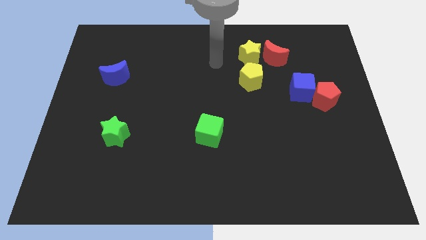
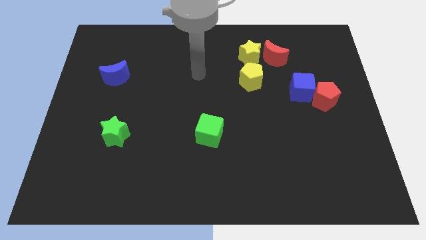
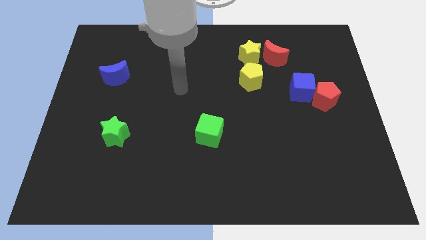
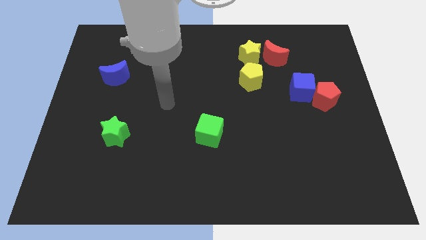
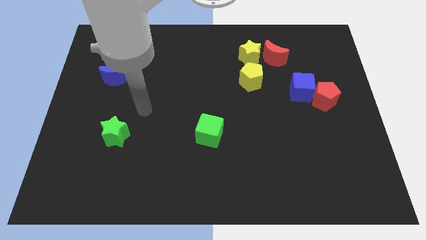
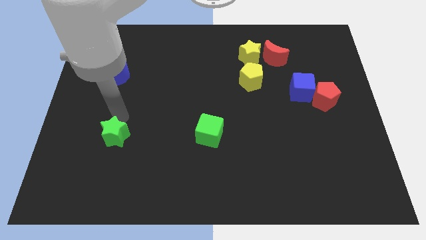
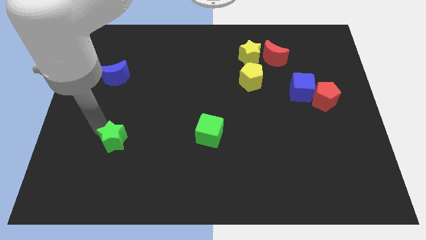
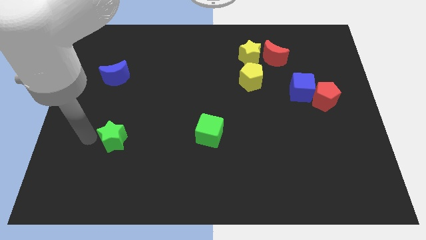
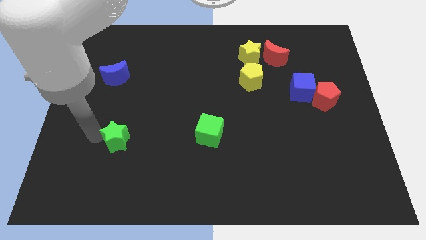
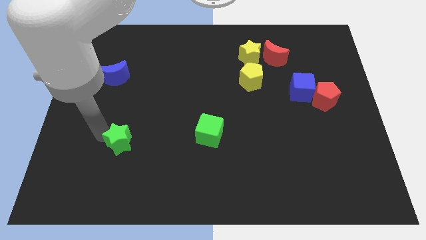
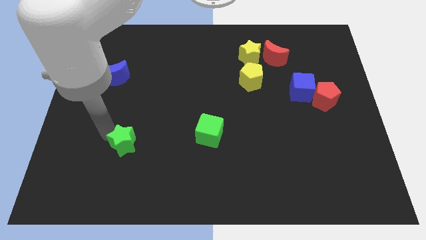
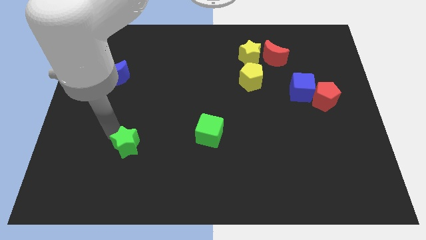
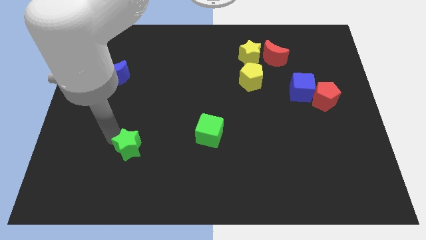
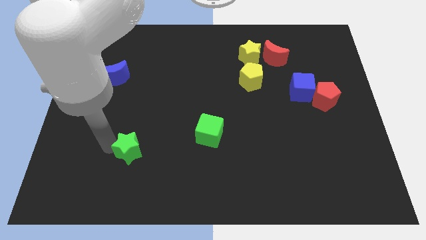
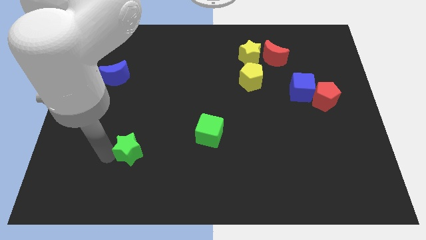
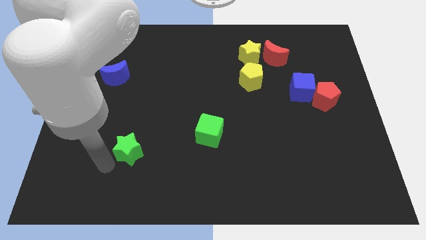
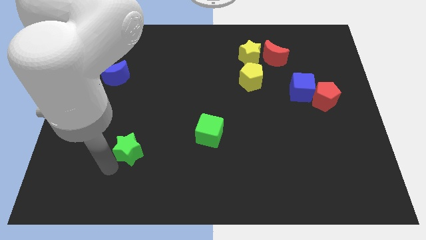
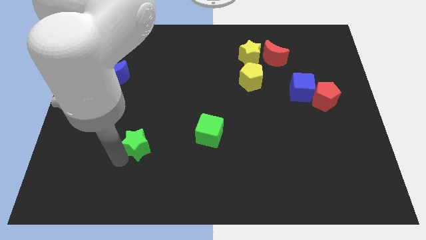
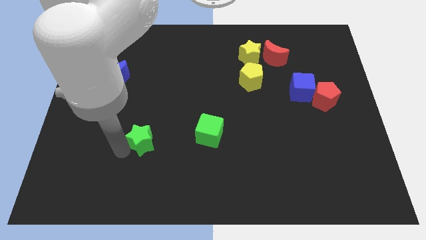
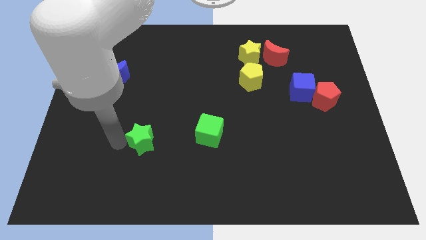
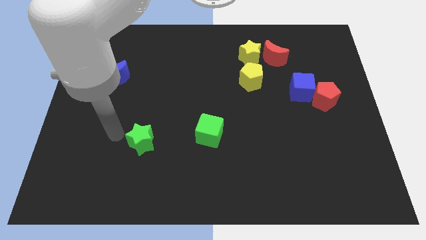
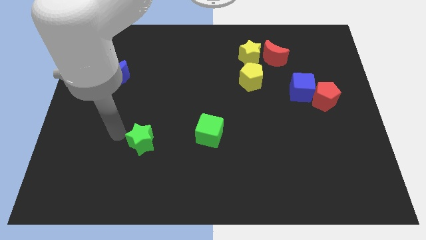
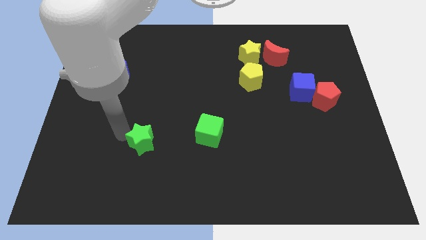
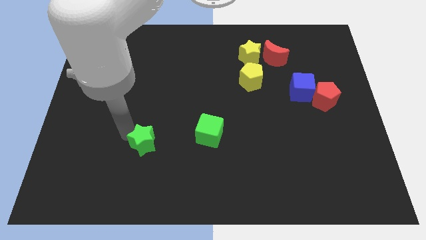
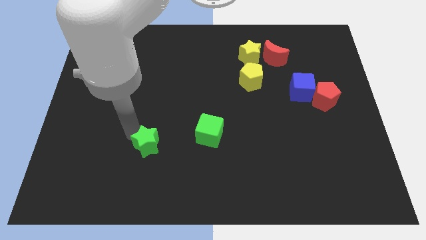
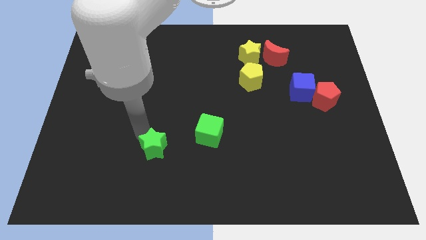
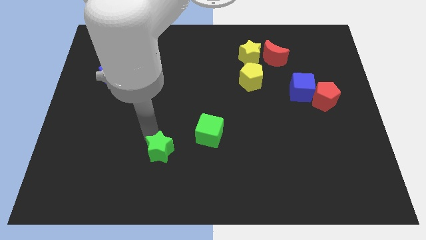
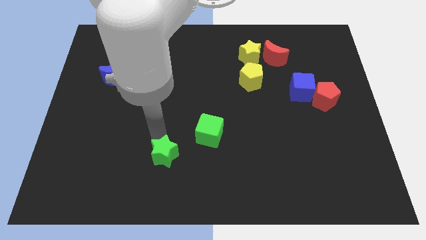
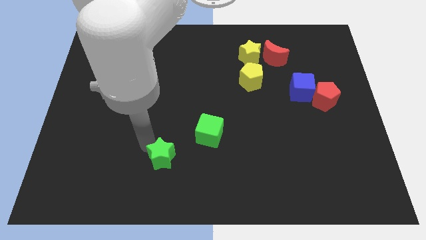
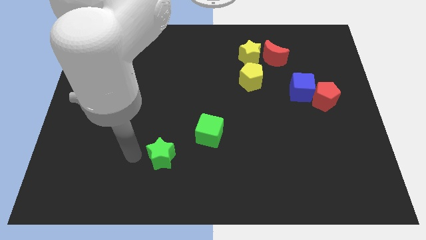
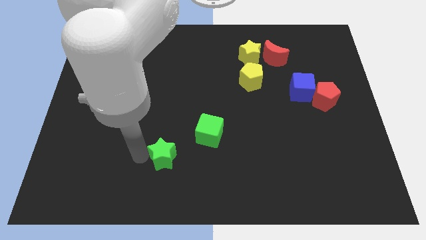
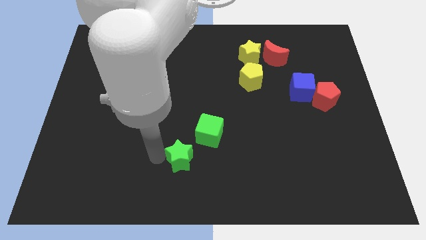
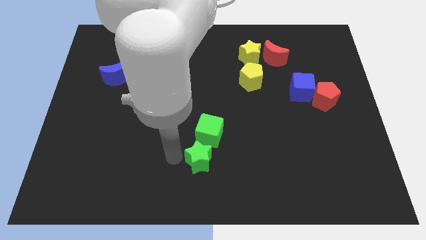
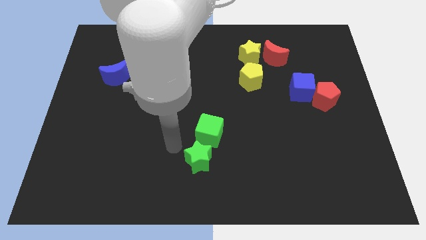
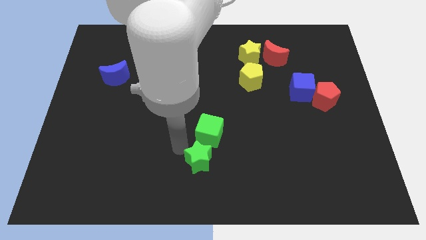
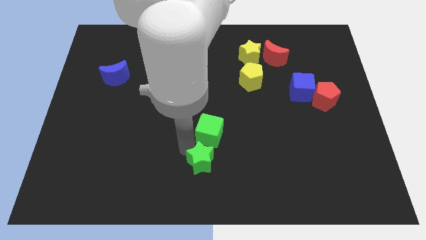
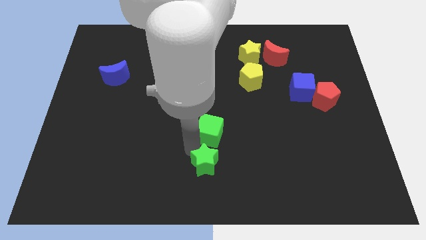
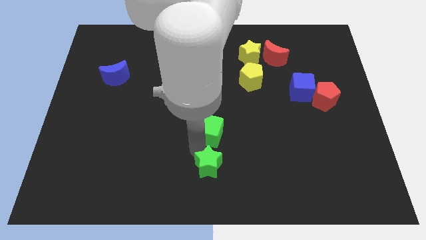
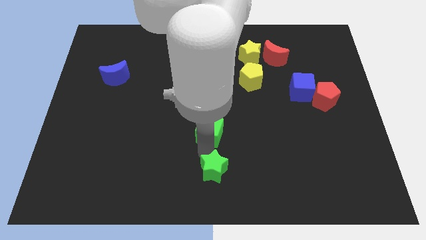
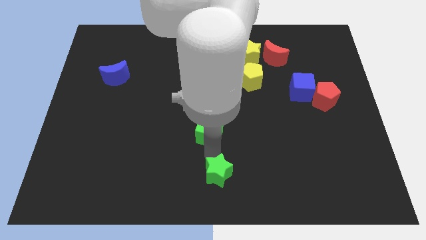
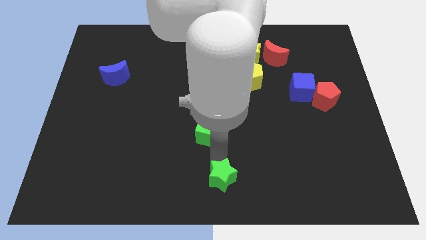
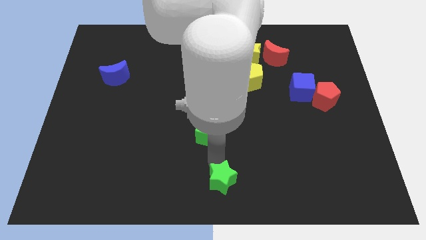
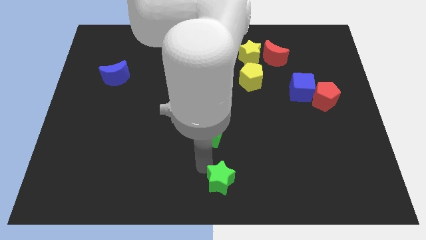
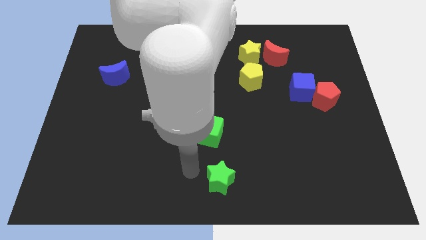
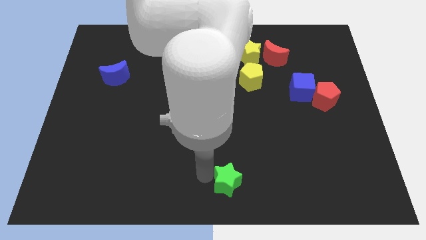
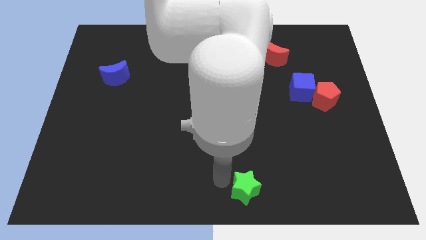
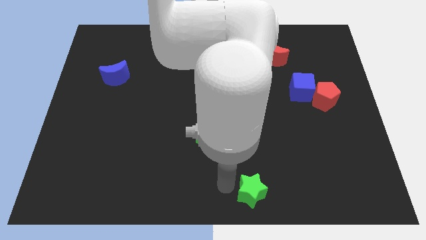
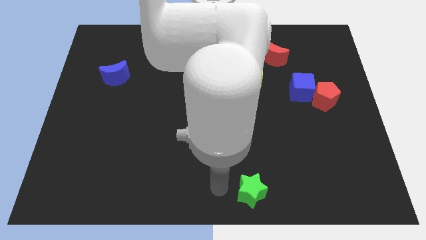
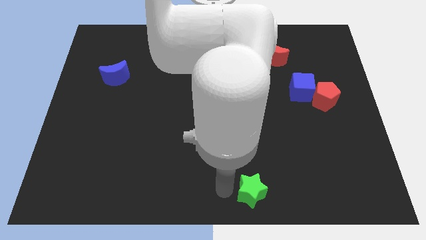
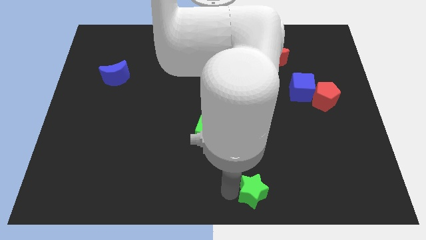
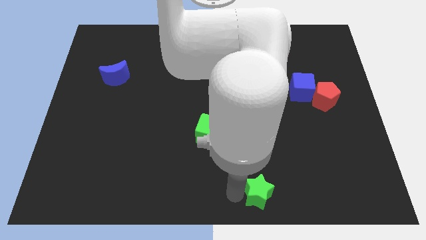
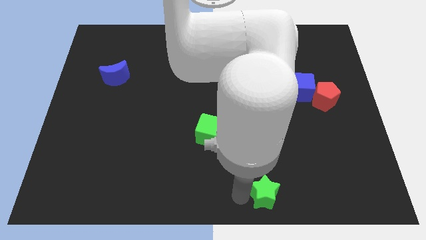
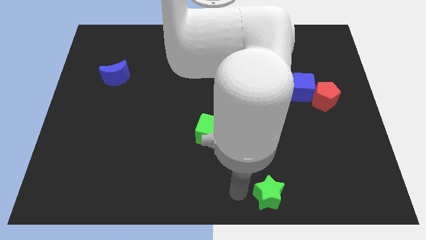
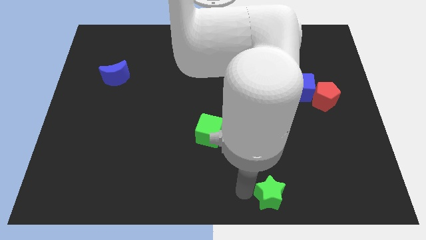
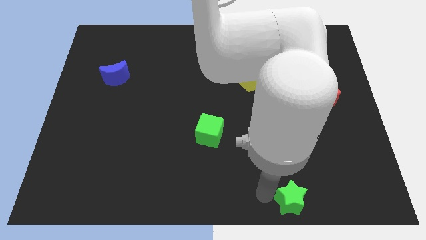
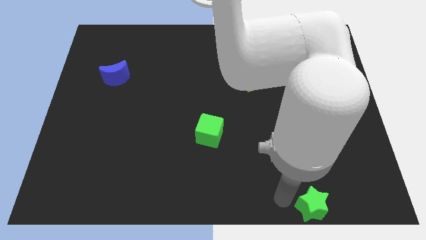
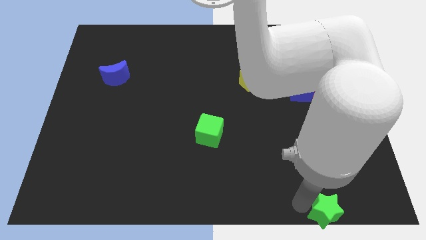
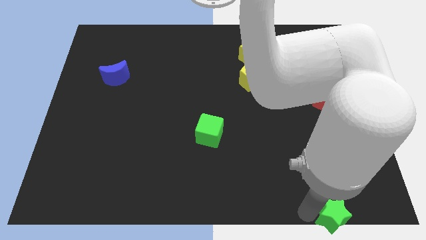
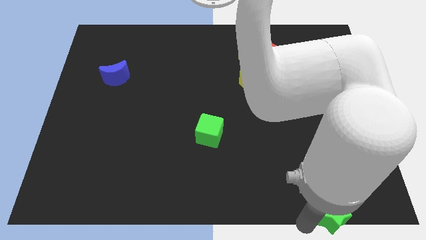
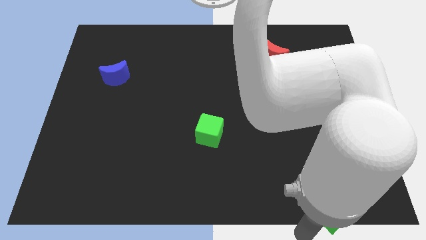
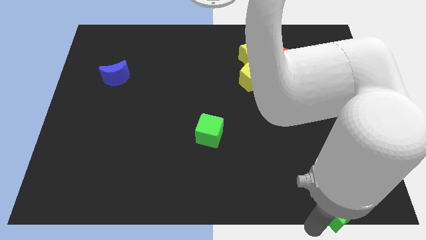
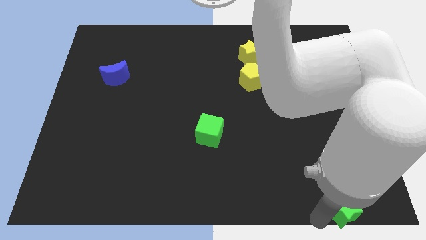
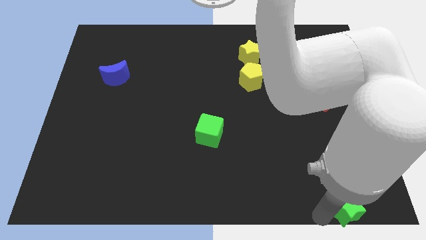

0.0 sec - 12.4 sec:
put the green star to the bottom right

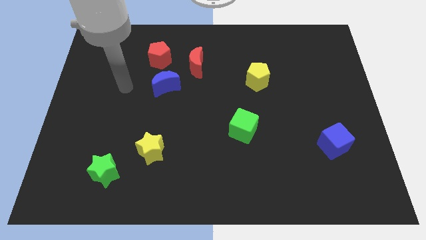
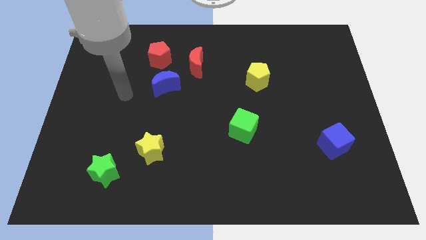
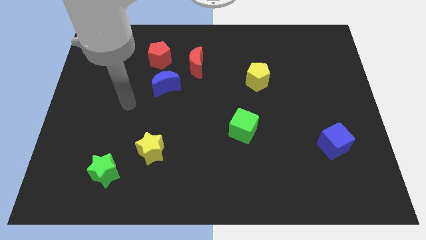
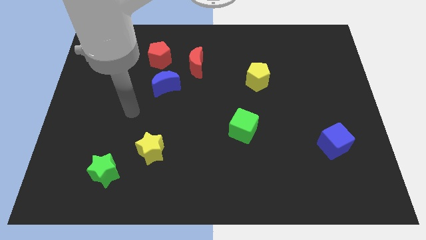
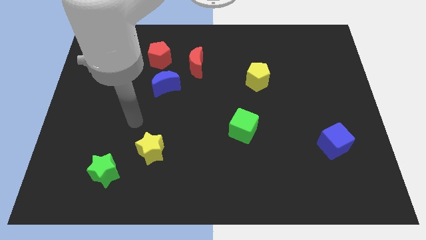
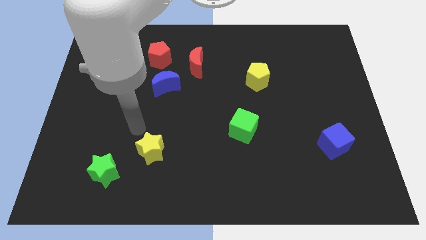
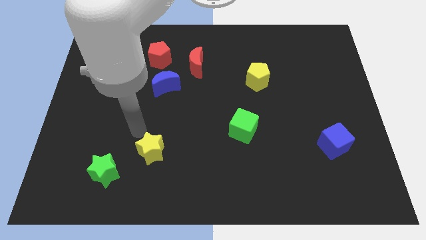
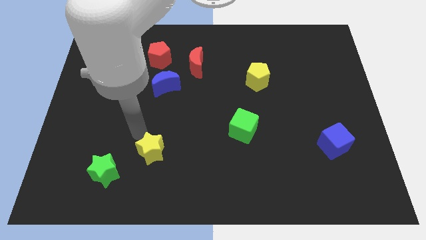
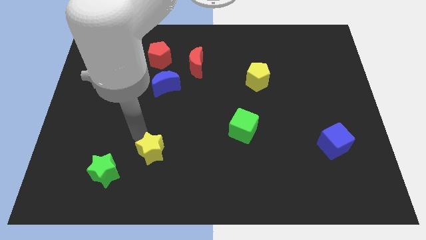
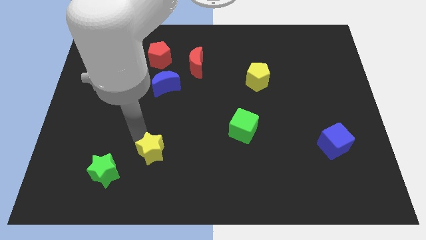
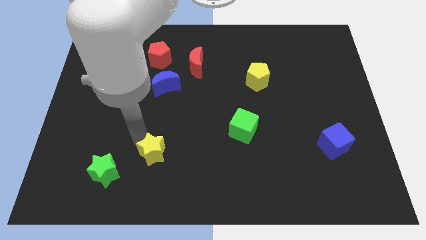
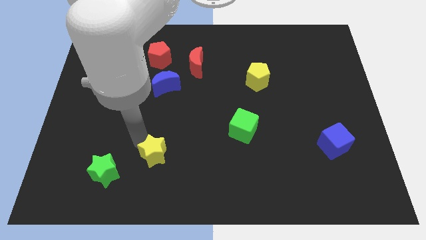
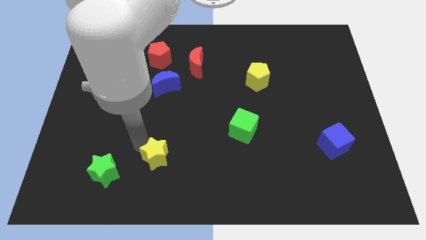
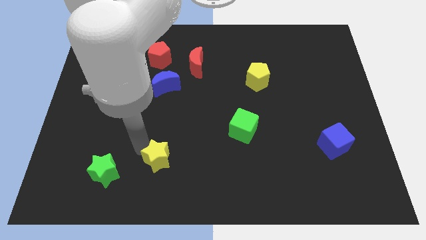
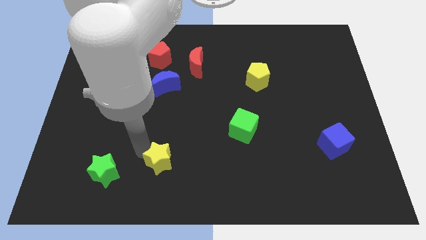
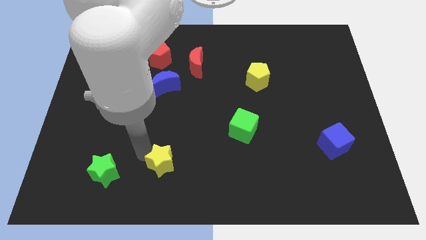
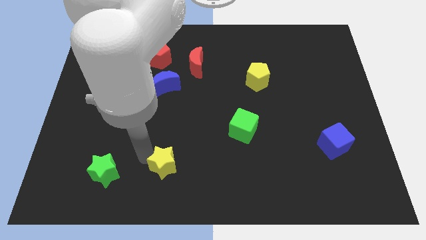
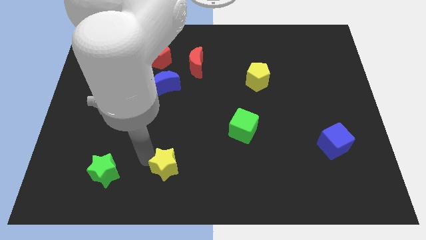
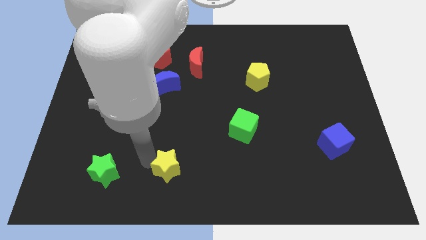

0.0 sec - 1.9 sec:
put the yellow star to the bottom side
